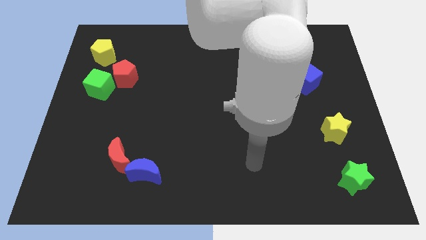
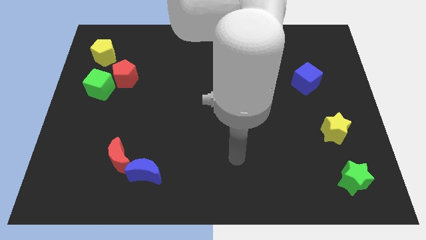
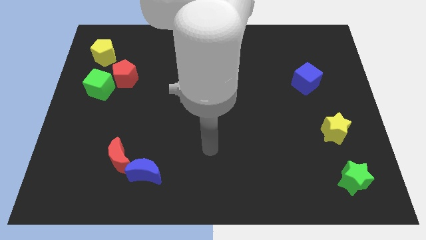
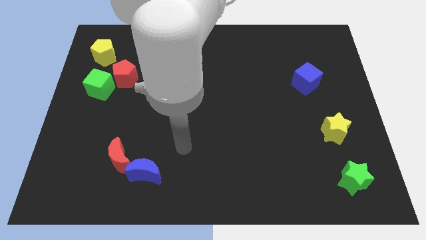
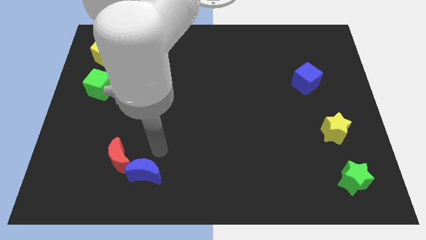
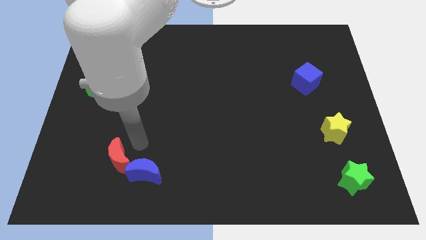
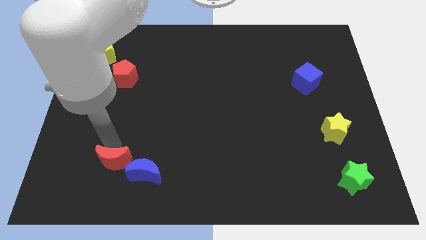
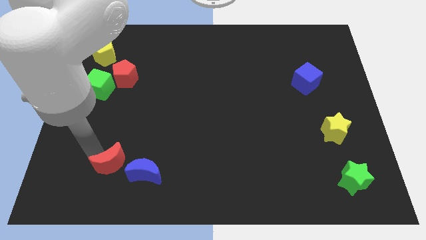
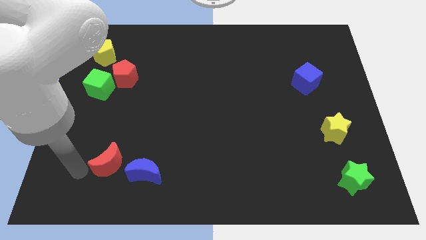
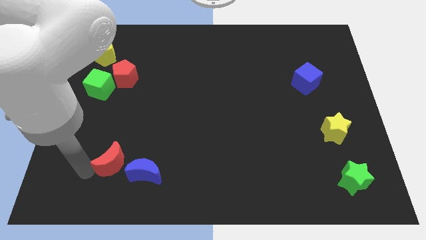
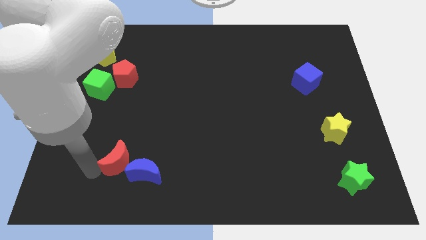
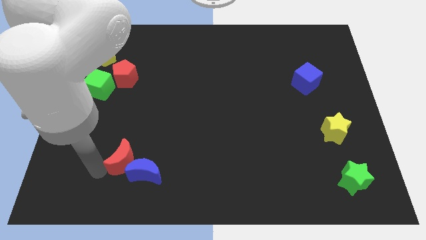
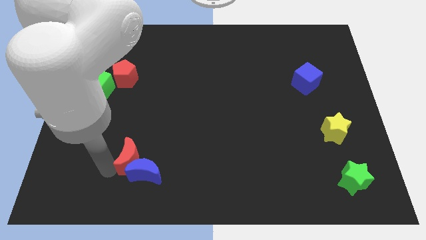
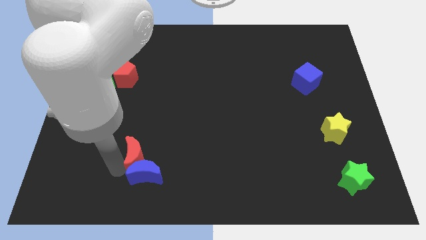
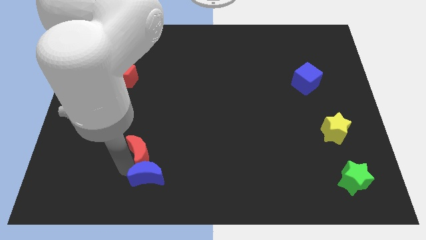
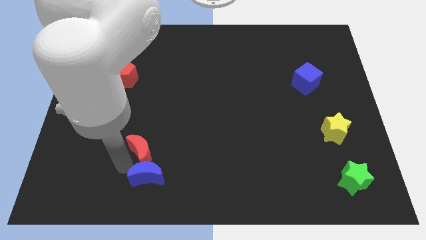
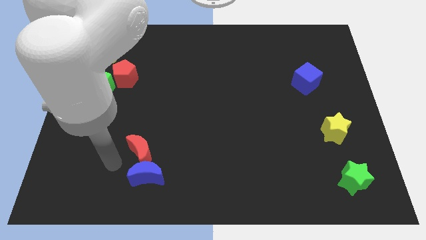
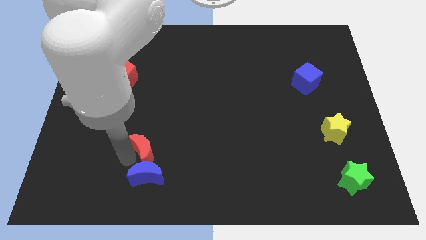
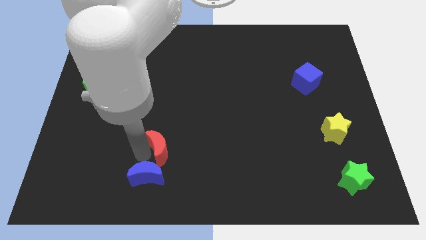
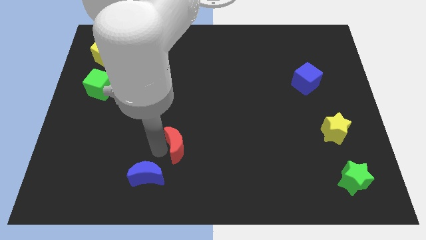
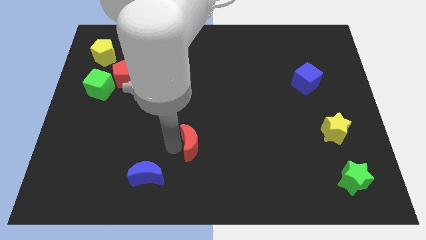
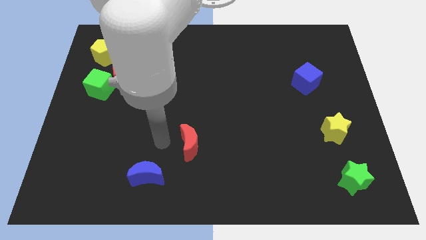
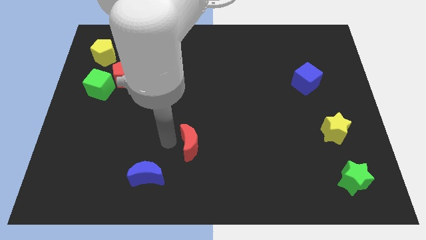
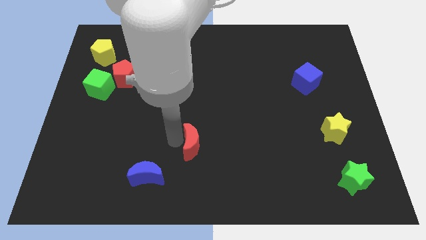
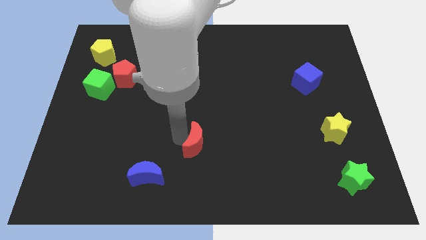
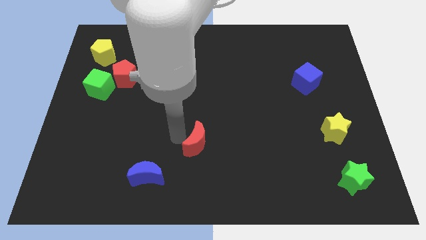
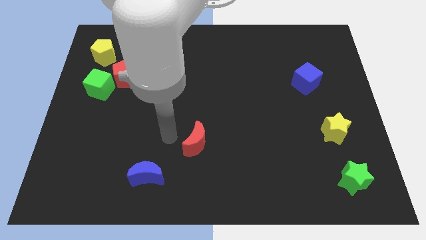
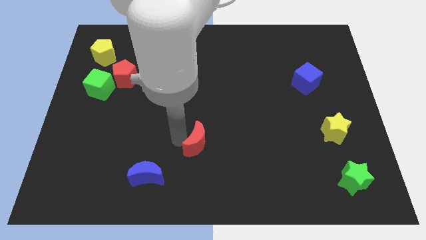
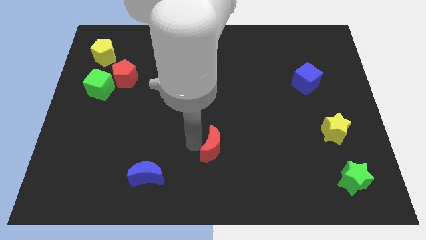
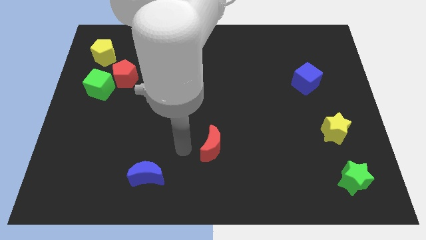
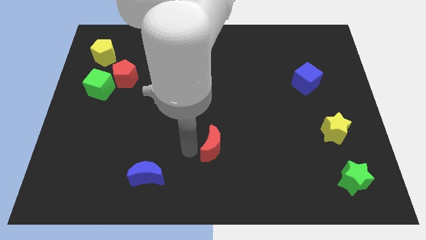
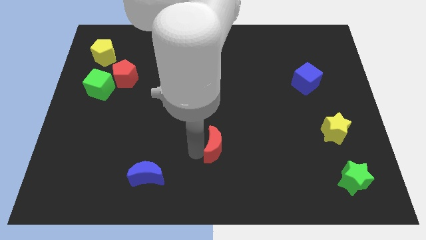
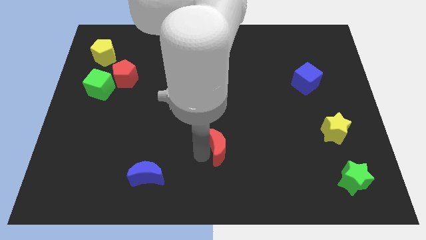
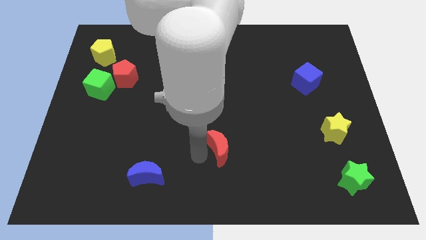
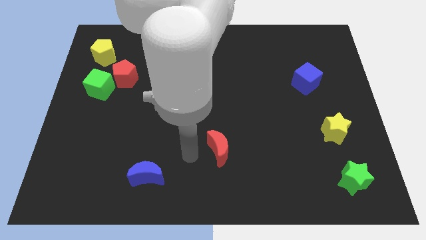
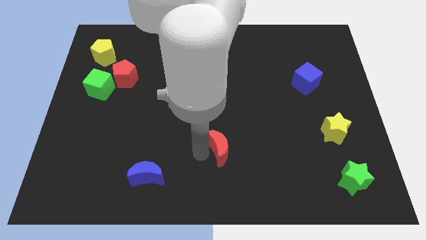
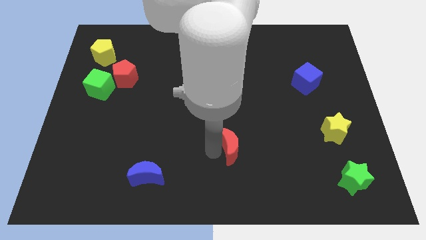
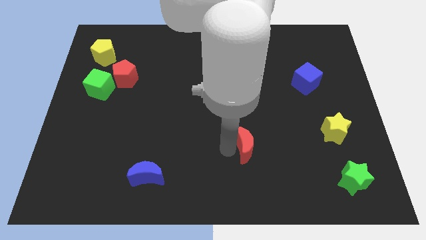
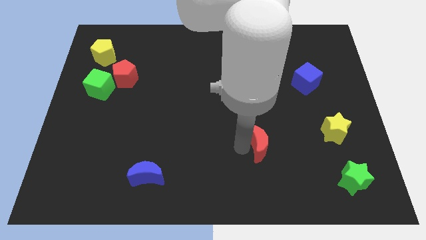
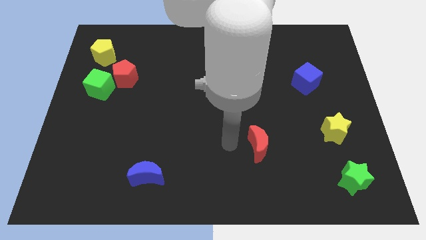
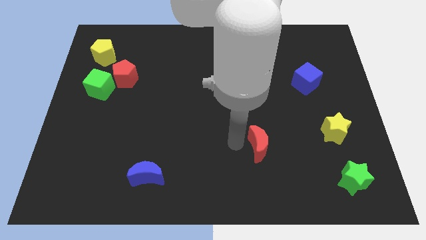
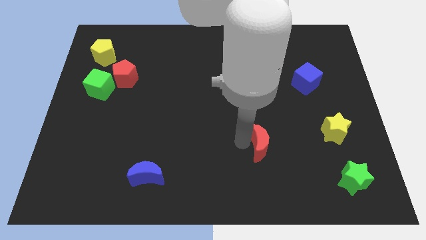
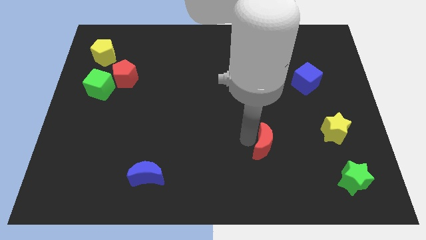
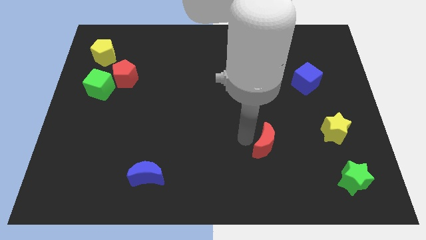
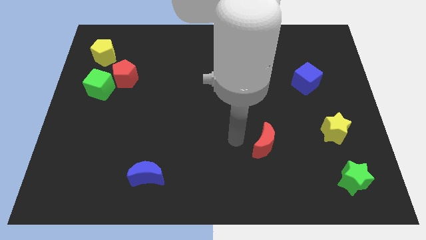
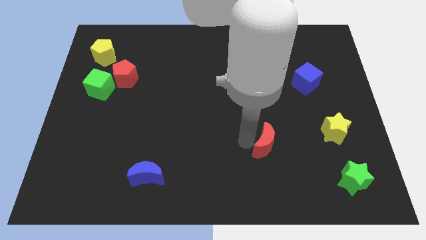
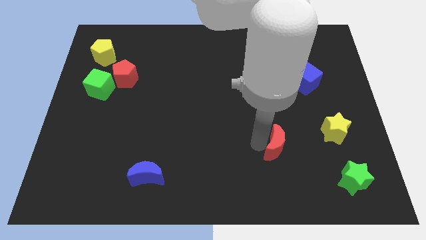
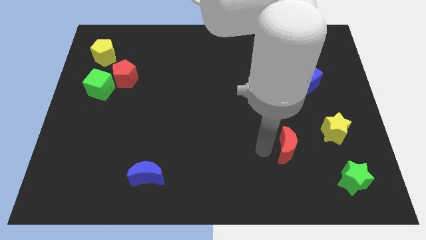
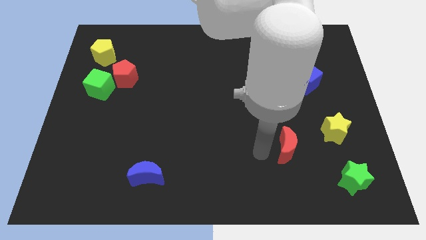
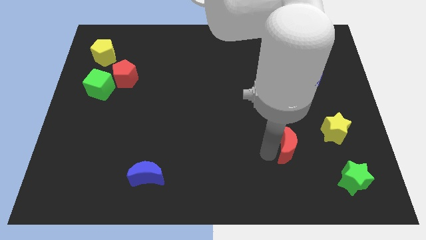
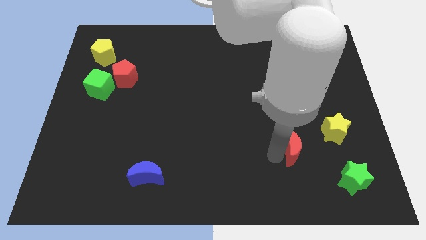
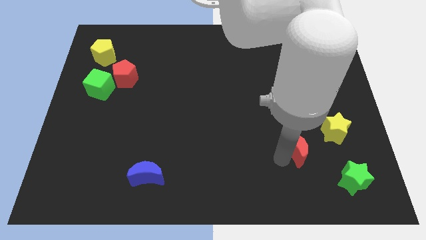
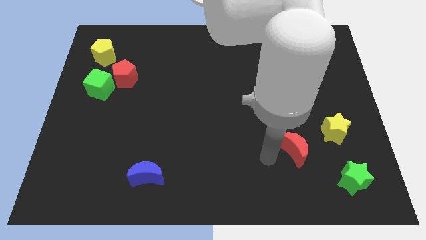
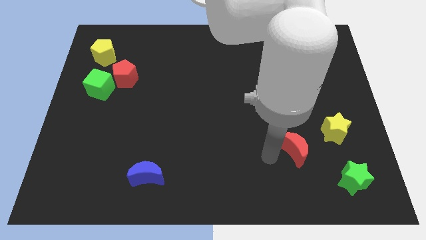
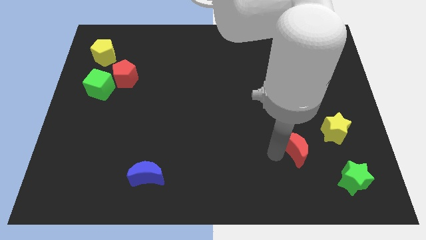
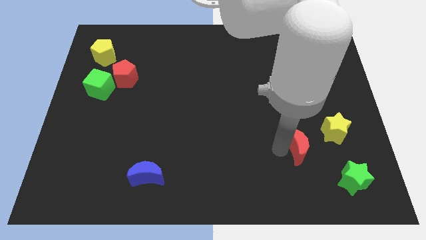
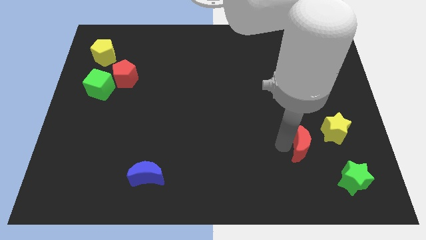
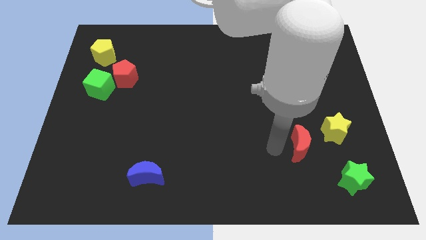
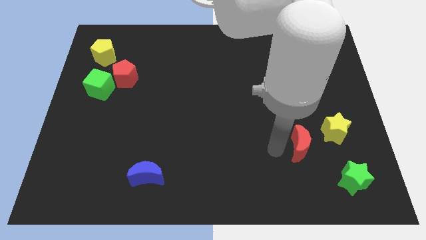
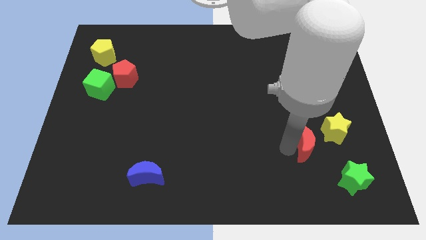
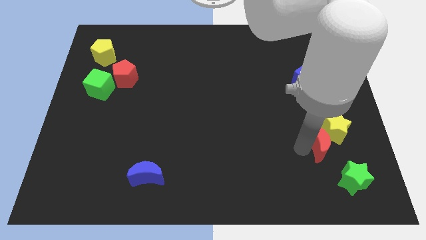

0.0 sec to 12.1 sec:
move the red moon close to the yellow star

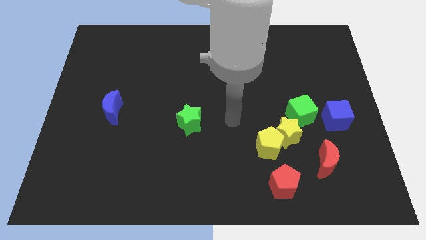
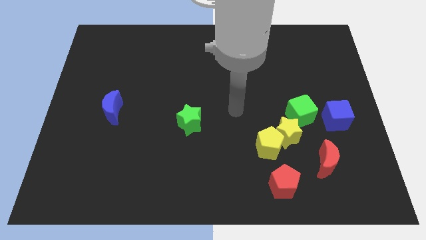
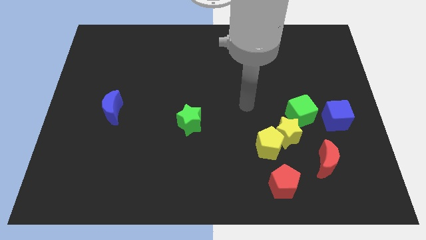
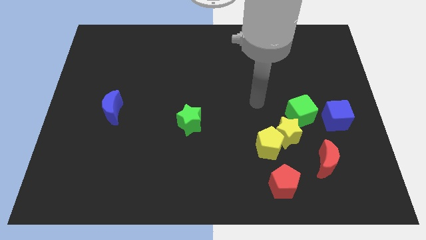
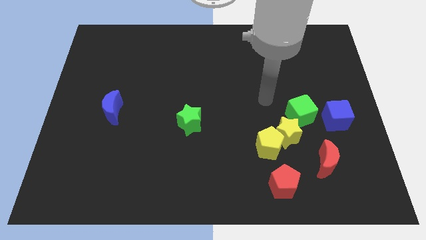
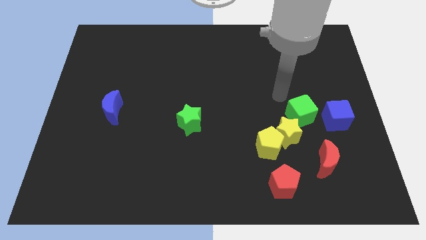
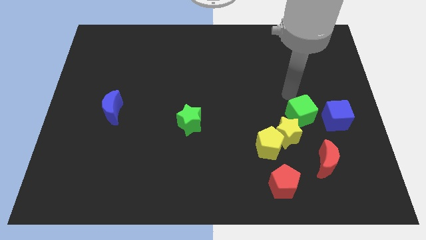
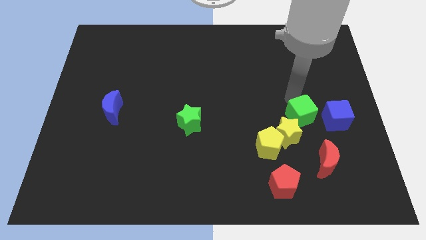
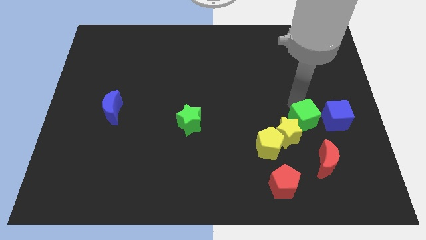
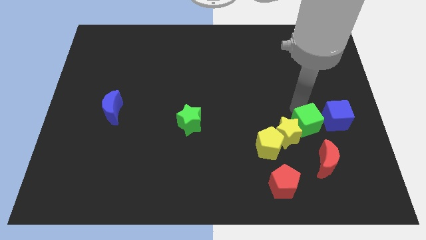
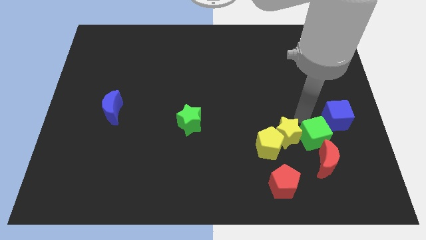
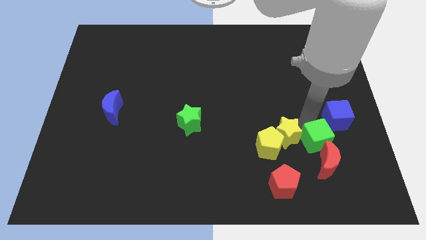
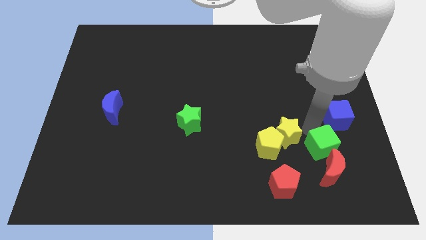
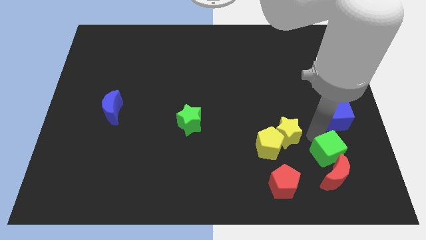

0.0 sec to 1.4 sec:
slide the green cube to the red moon
